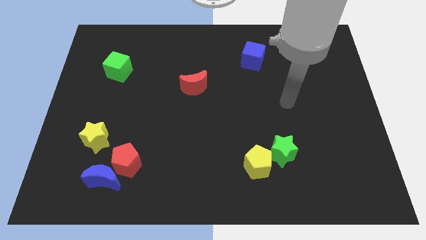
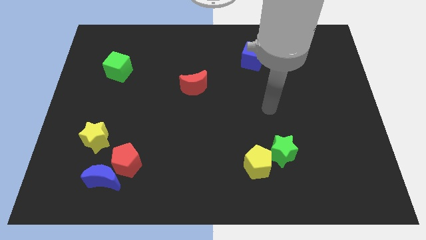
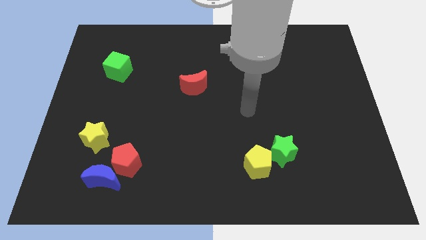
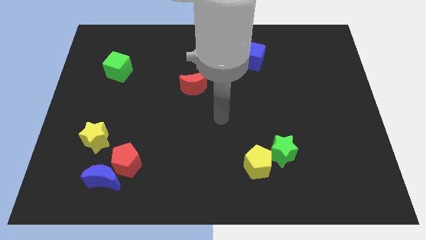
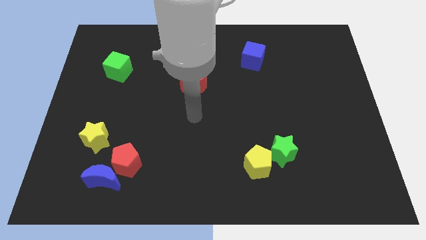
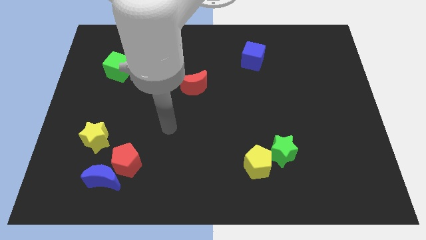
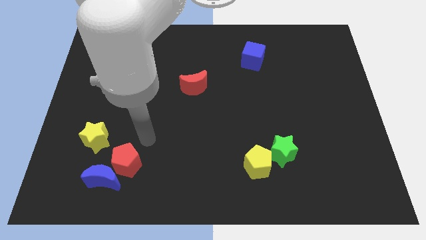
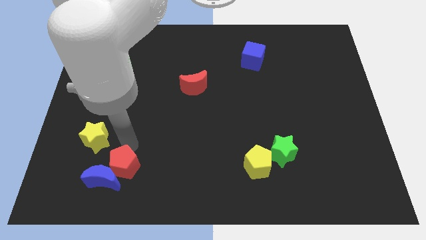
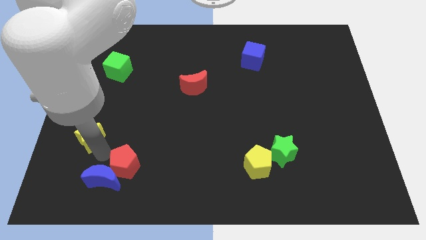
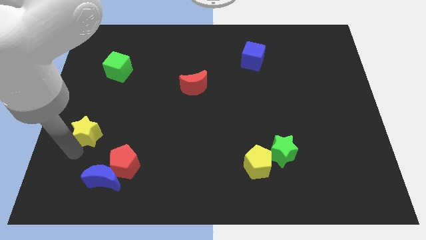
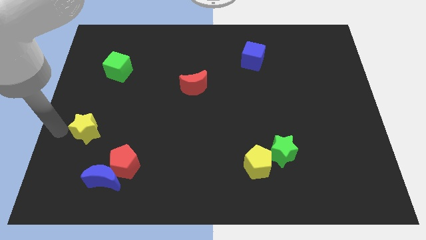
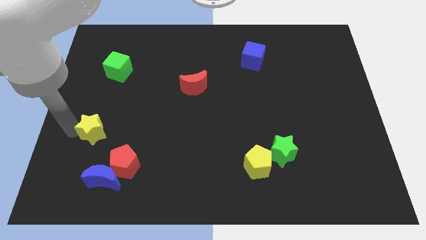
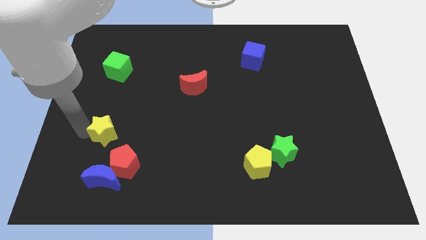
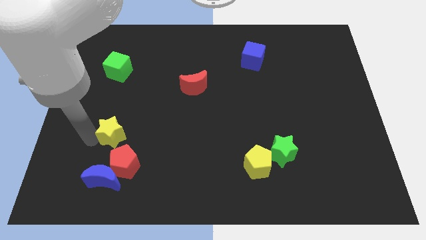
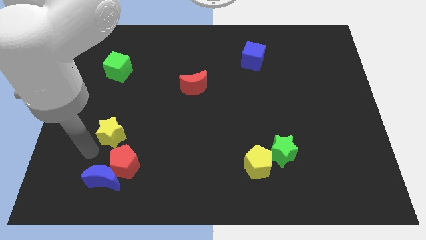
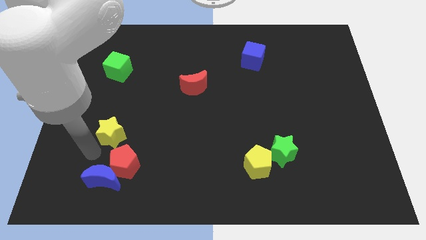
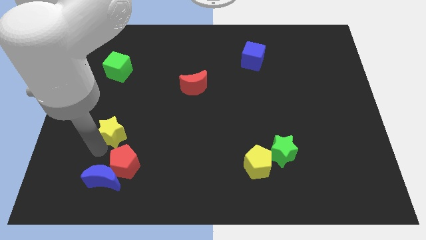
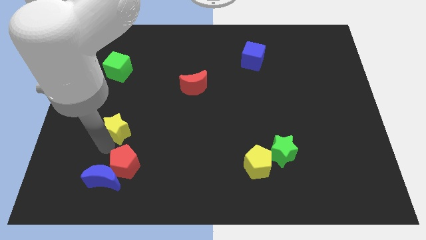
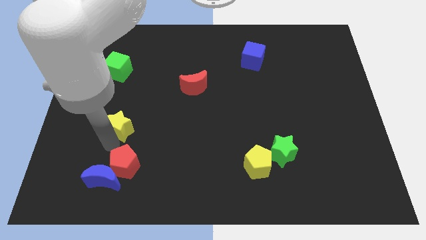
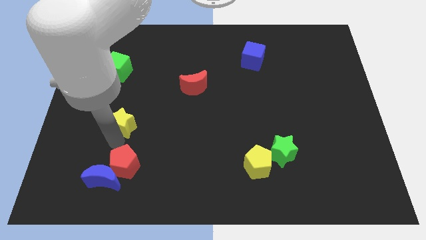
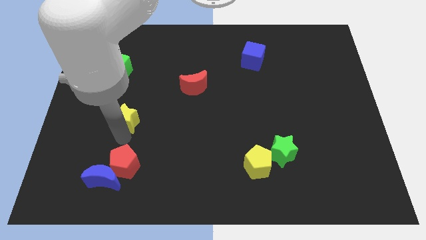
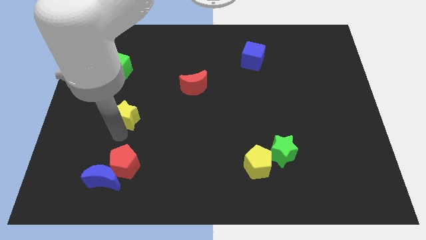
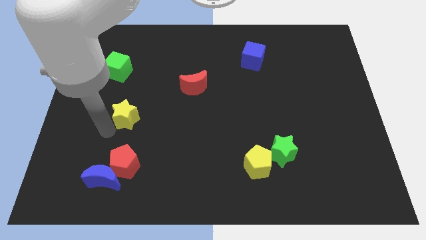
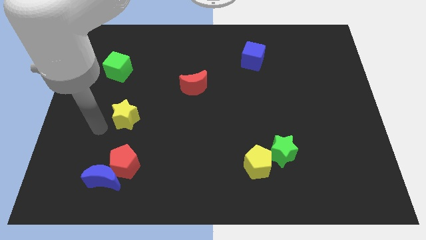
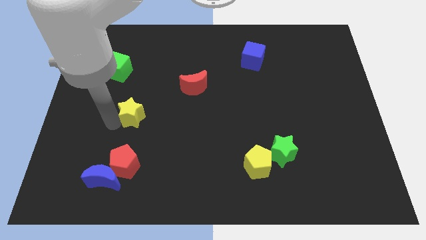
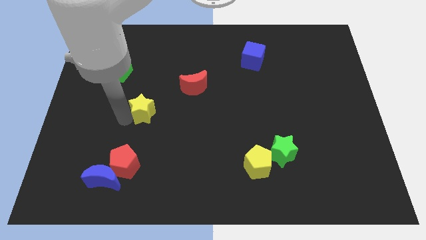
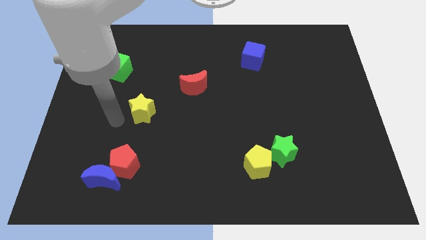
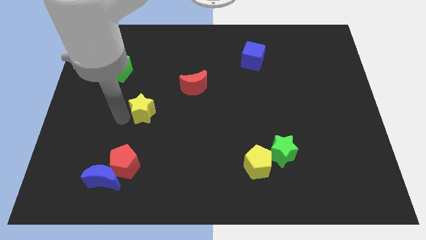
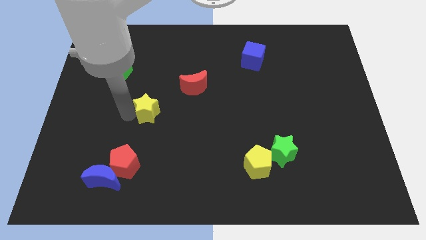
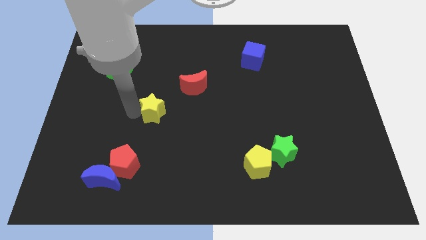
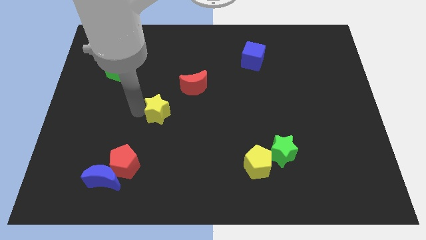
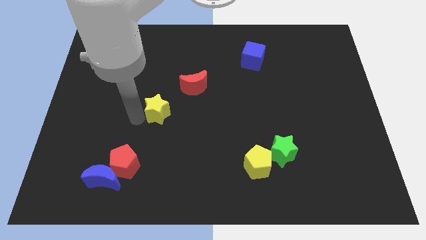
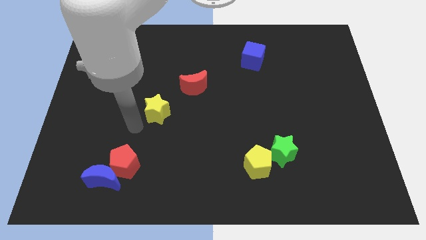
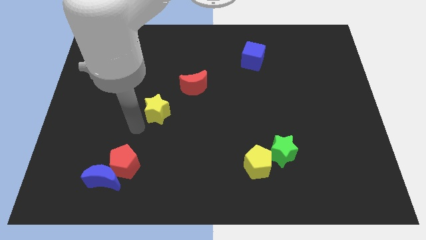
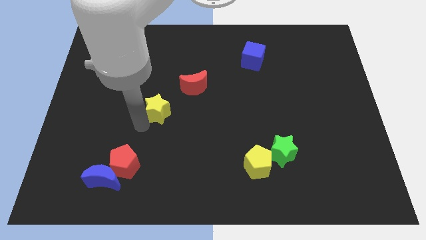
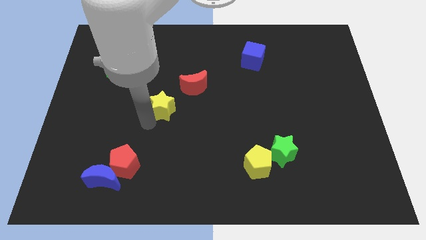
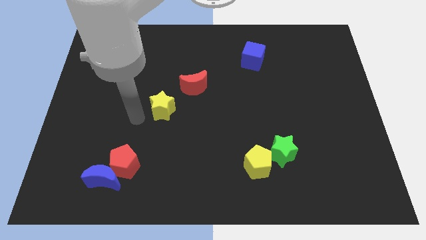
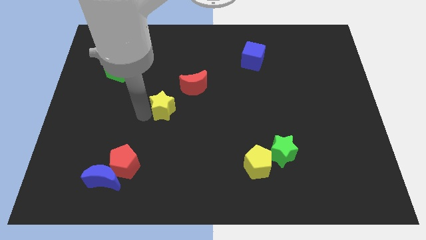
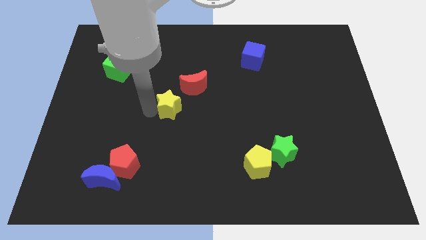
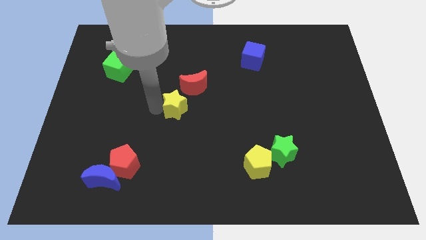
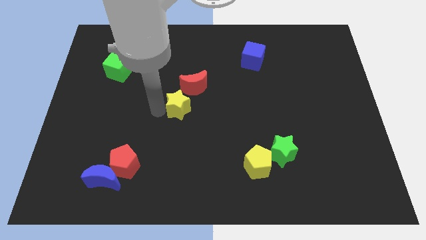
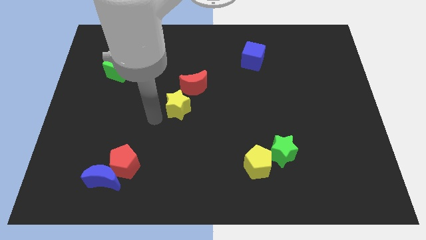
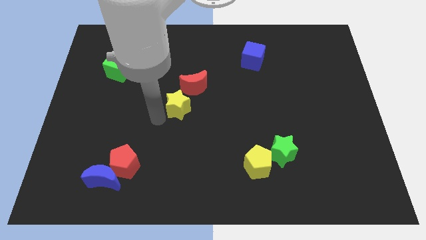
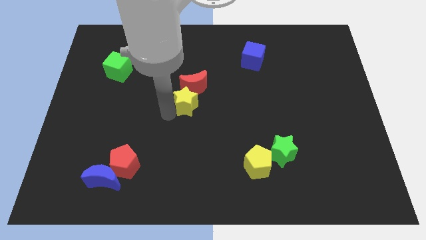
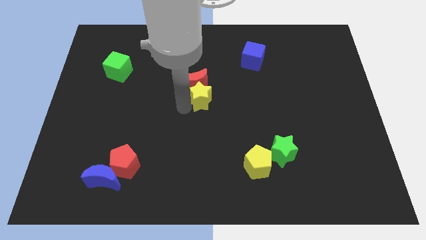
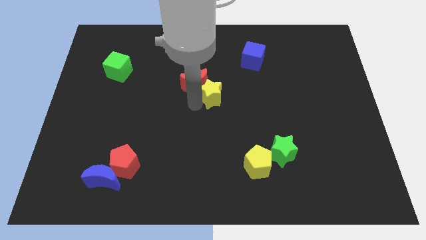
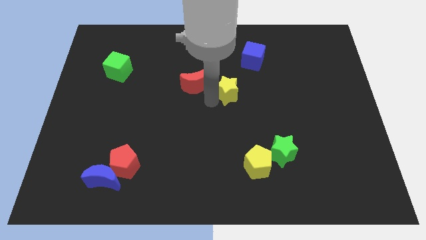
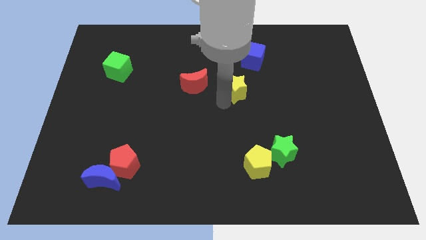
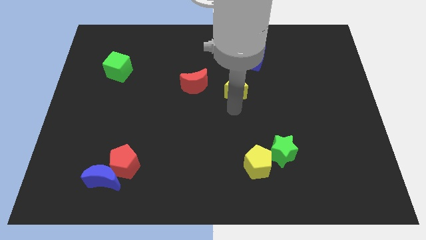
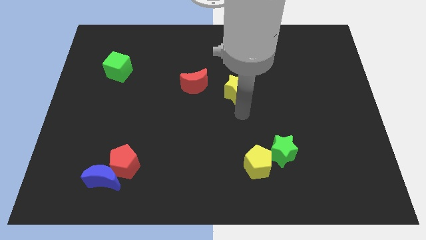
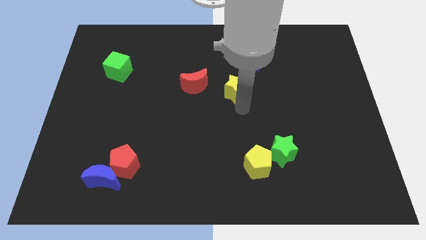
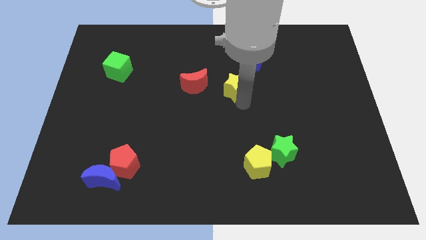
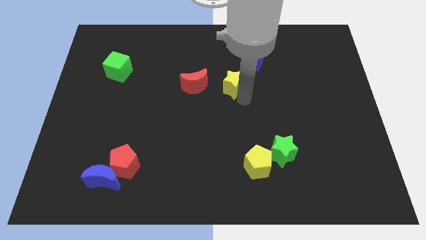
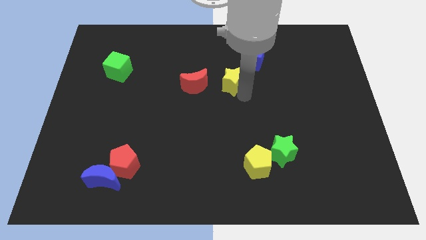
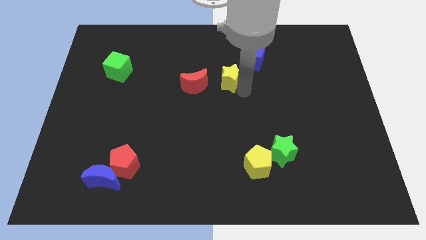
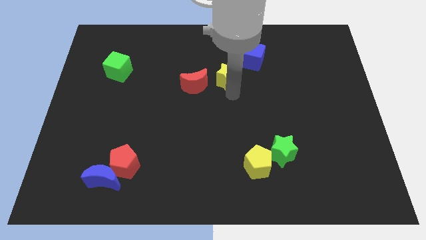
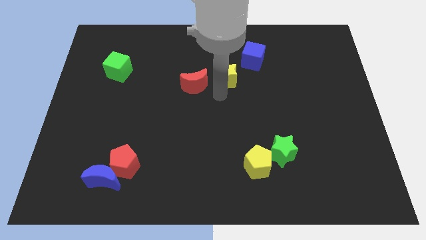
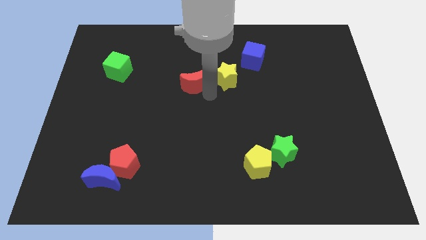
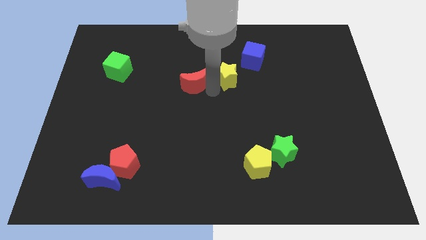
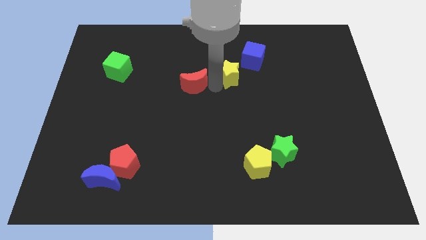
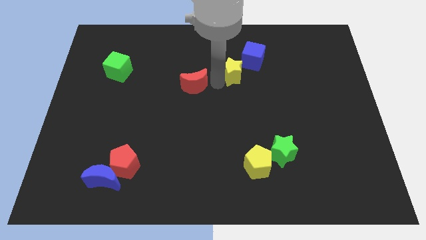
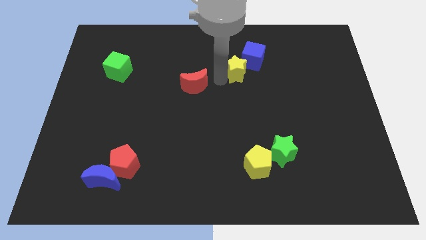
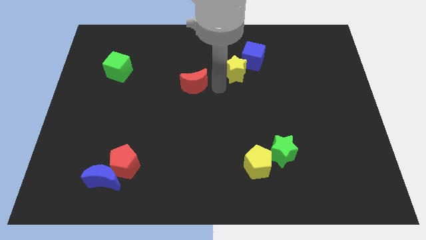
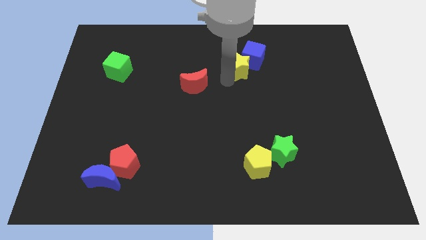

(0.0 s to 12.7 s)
put the yellow star towards the blue cube

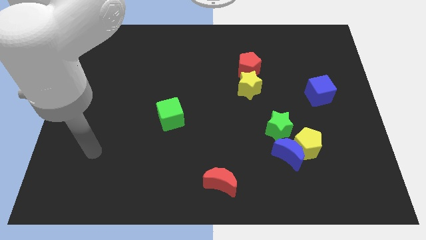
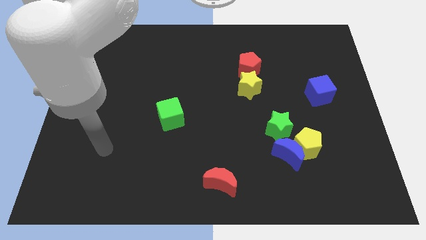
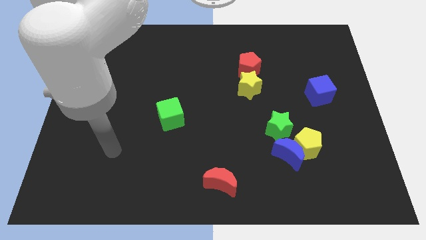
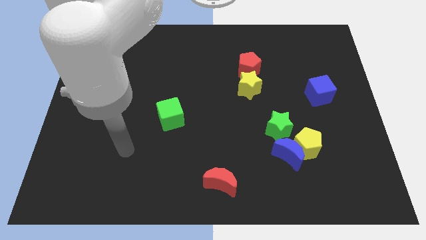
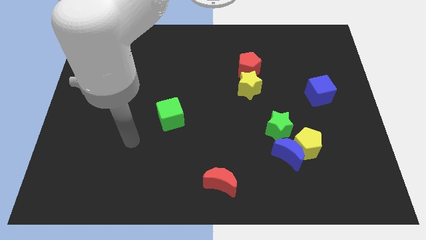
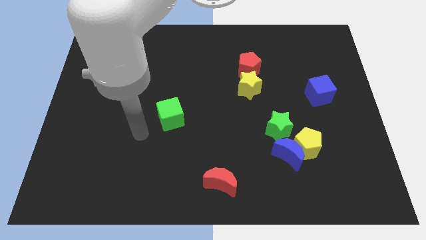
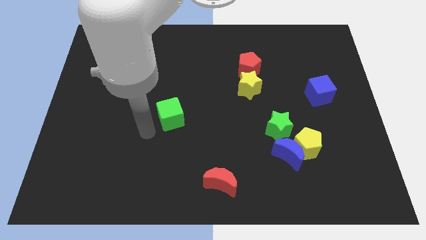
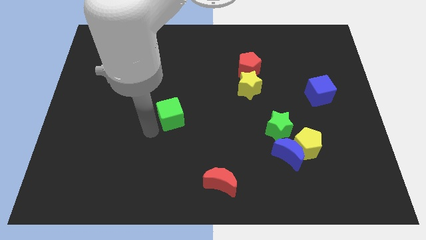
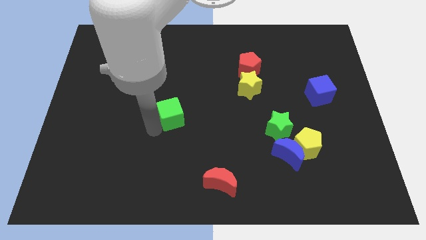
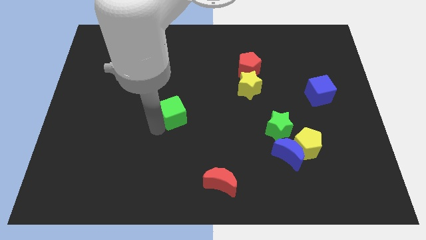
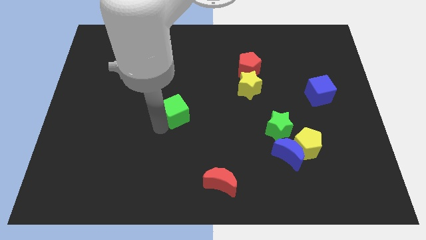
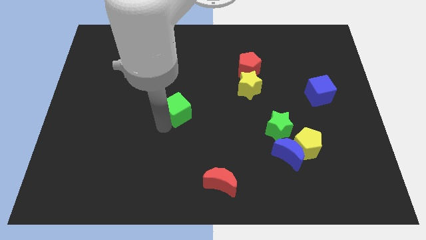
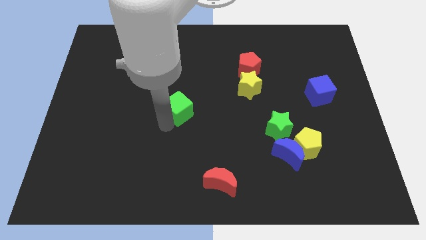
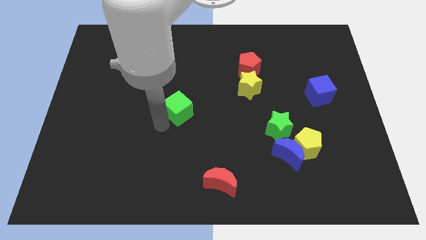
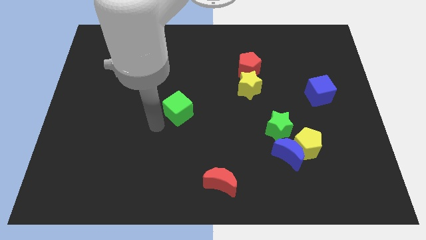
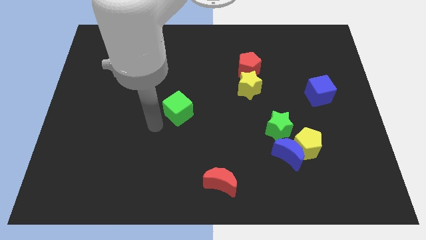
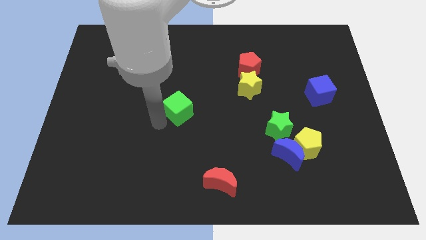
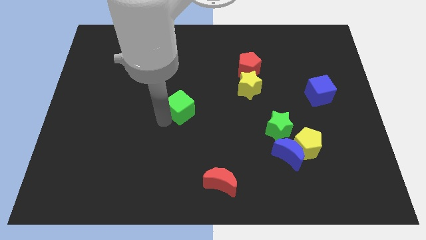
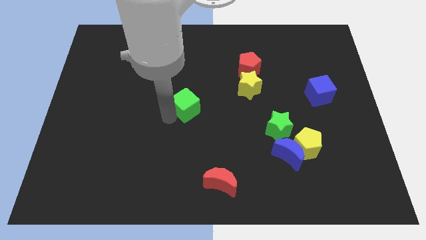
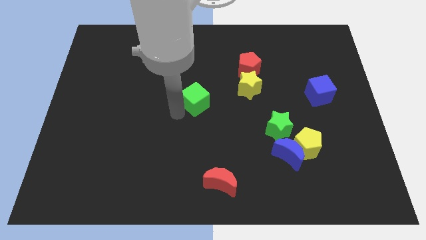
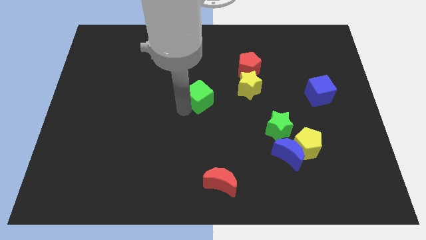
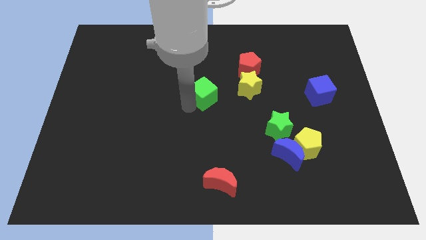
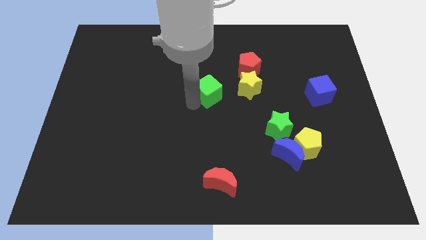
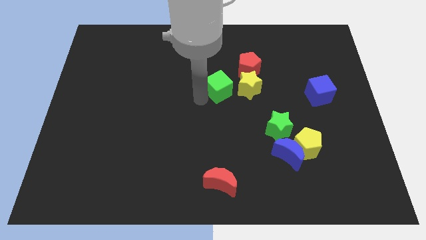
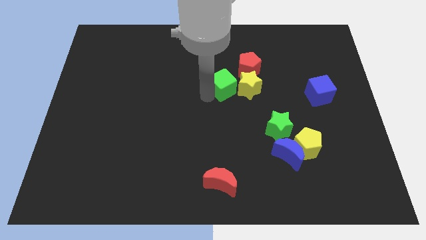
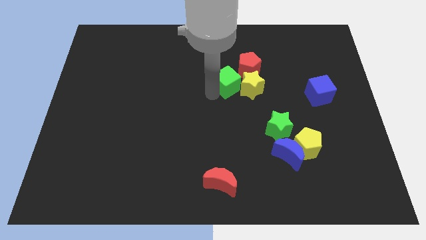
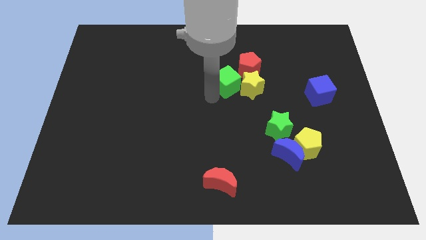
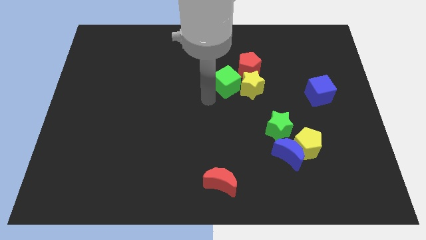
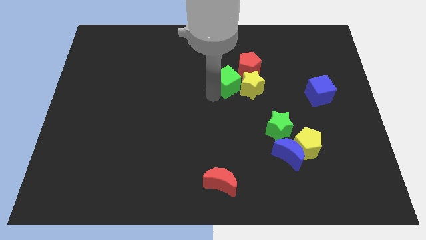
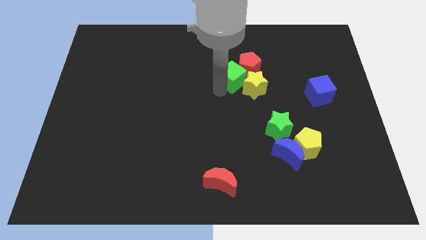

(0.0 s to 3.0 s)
push the green cube towards the red pentagon
